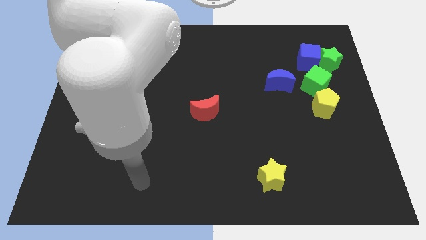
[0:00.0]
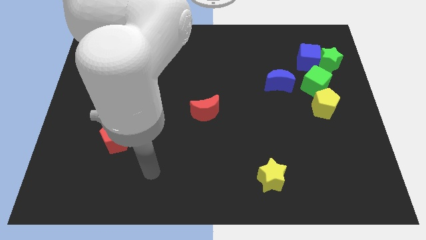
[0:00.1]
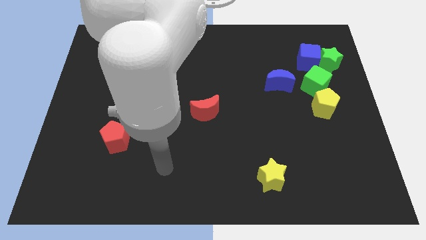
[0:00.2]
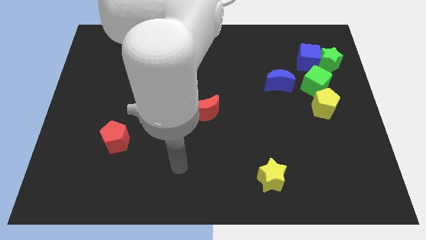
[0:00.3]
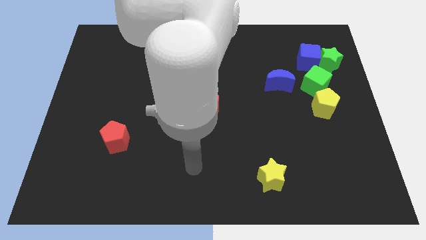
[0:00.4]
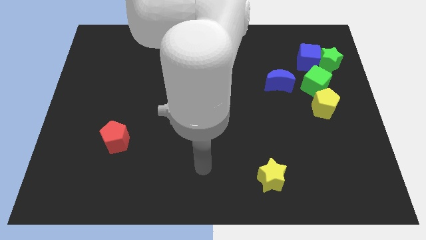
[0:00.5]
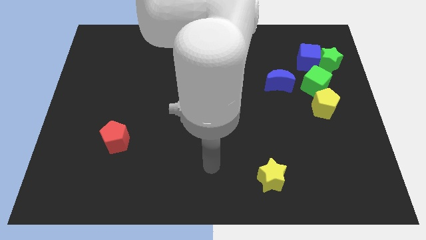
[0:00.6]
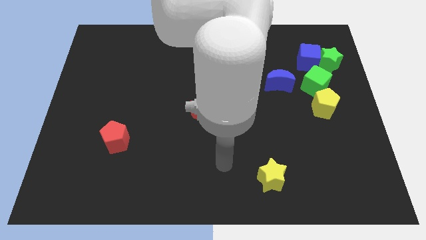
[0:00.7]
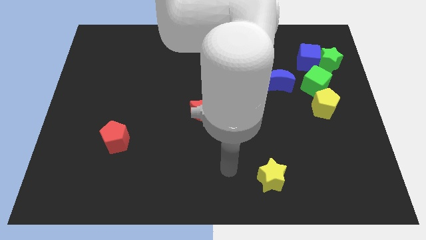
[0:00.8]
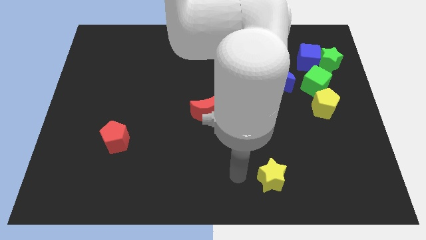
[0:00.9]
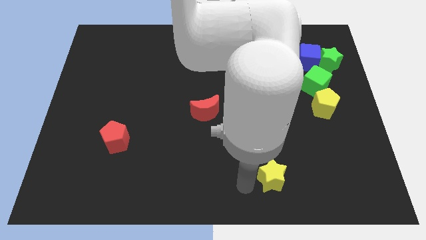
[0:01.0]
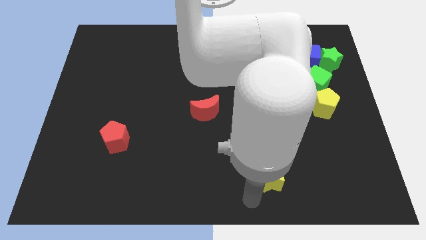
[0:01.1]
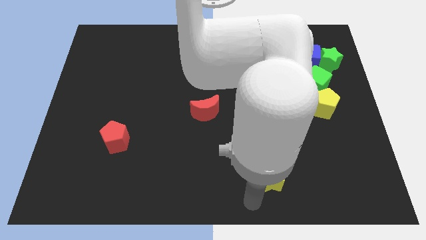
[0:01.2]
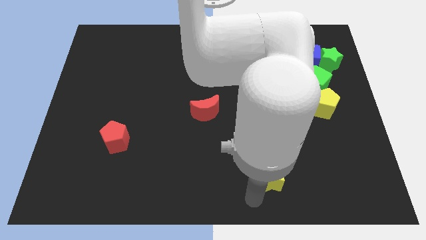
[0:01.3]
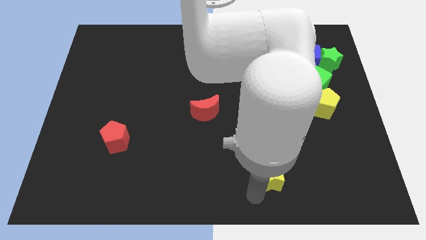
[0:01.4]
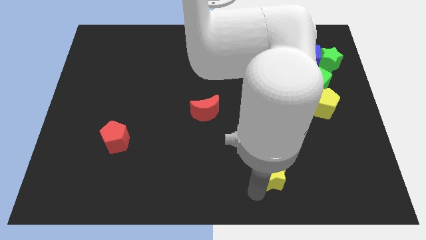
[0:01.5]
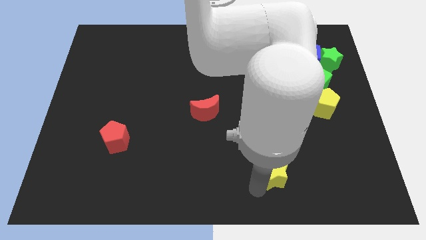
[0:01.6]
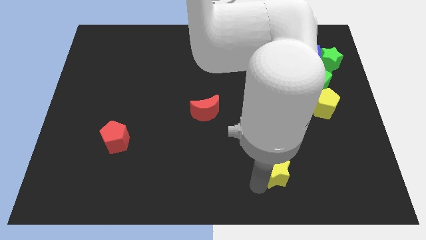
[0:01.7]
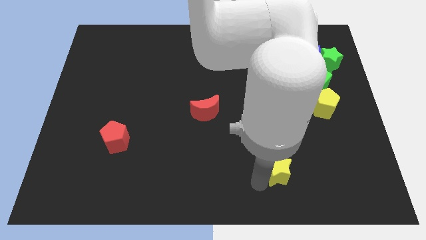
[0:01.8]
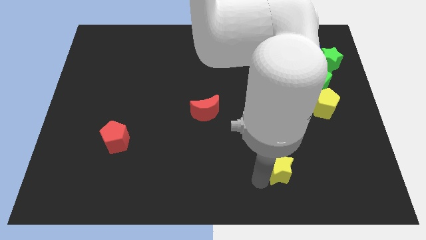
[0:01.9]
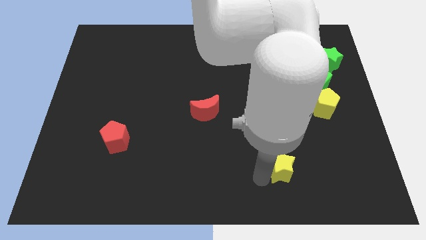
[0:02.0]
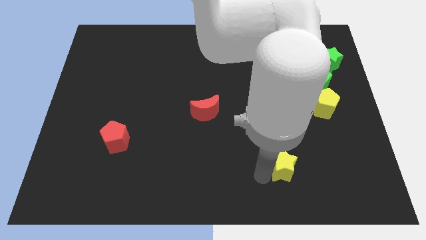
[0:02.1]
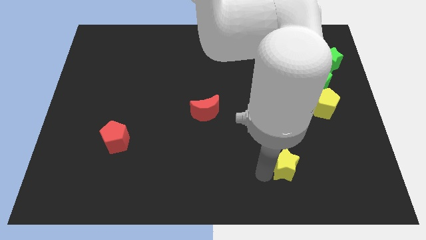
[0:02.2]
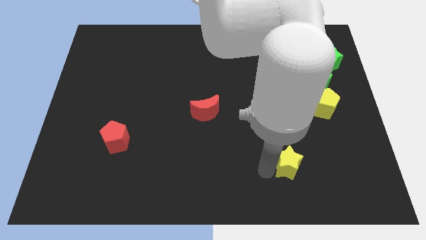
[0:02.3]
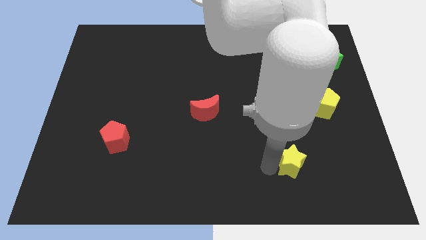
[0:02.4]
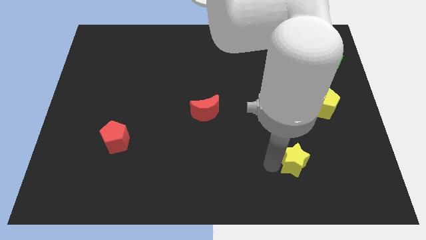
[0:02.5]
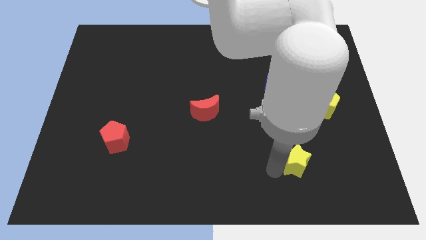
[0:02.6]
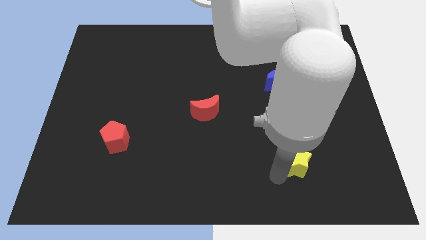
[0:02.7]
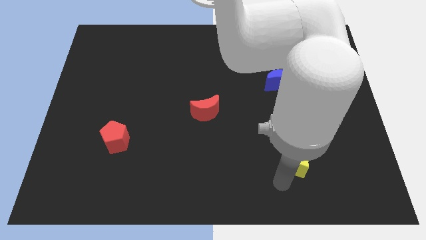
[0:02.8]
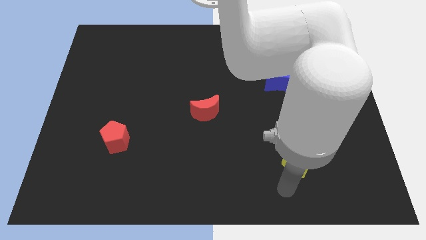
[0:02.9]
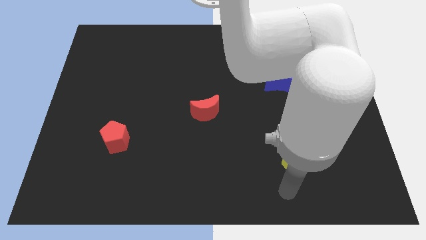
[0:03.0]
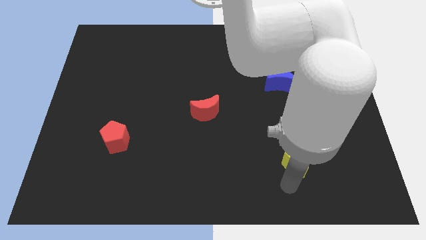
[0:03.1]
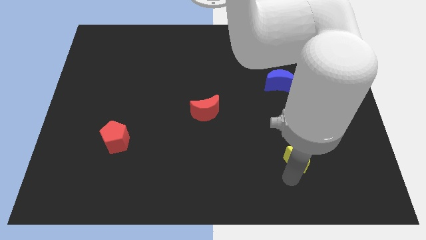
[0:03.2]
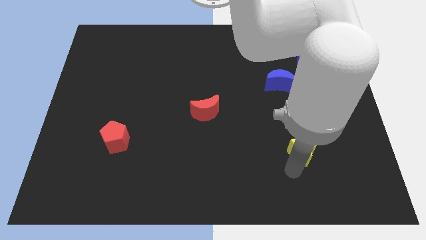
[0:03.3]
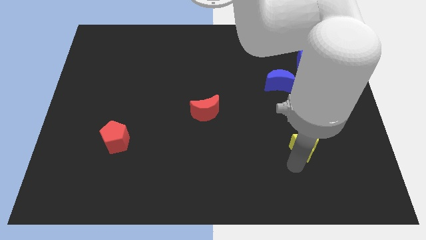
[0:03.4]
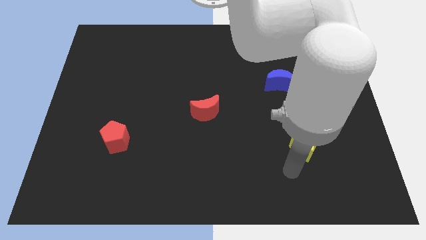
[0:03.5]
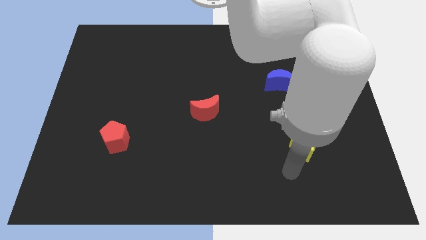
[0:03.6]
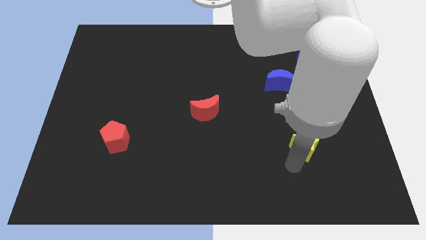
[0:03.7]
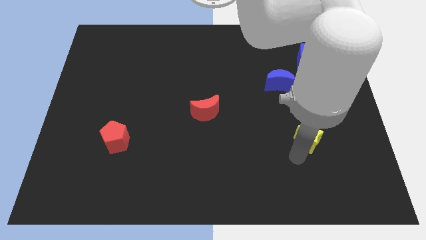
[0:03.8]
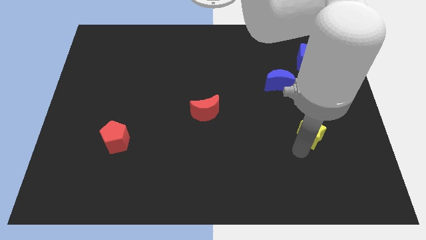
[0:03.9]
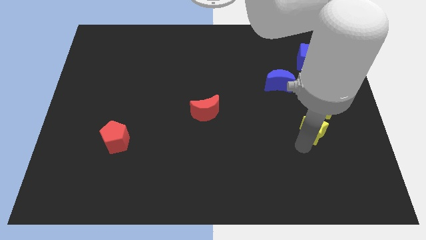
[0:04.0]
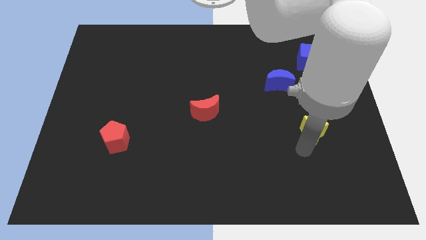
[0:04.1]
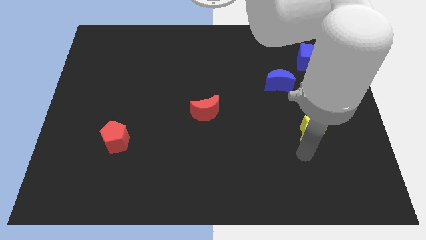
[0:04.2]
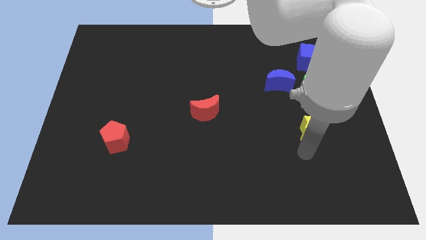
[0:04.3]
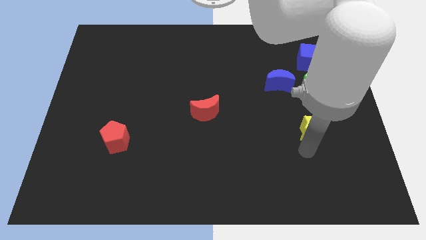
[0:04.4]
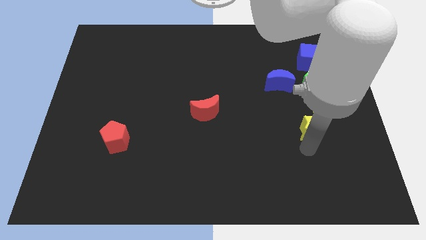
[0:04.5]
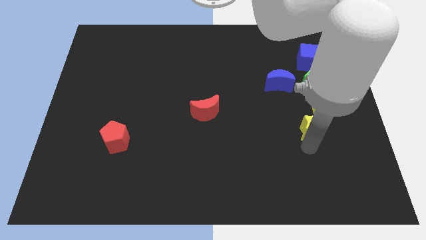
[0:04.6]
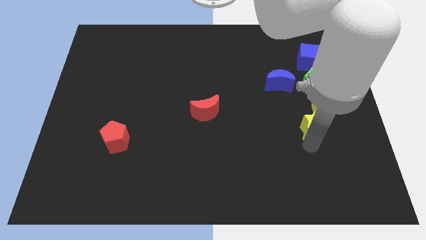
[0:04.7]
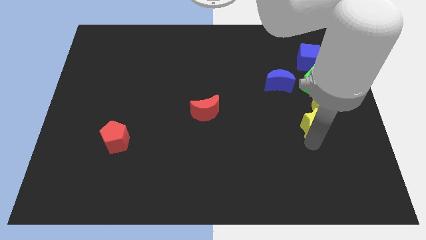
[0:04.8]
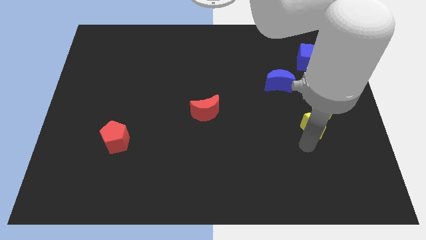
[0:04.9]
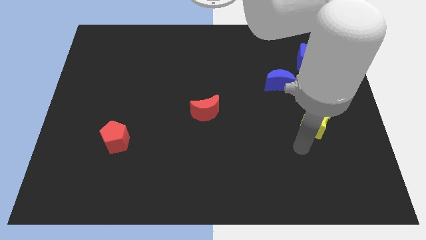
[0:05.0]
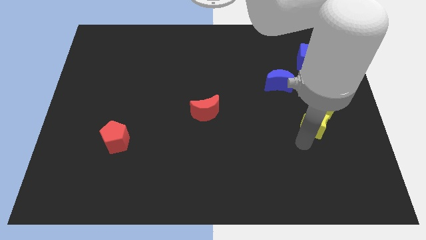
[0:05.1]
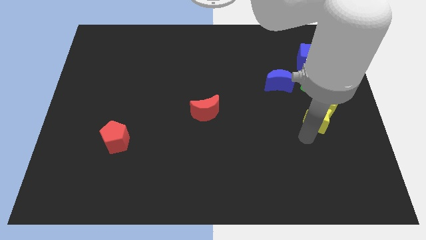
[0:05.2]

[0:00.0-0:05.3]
put the yellow star next to the yellow pentagon

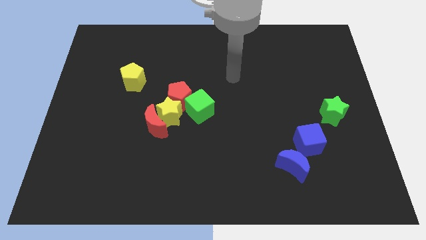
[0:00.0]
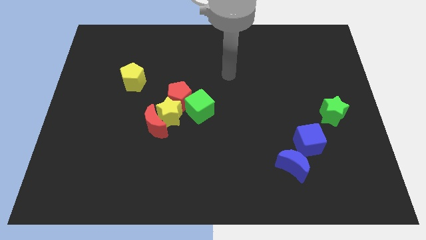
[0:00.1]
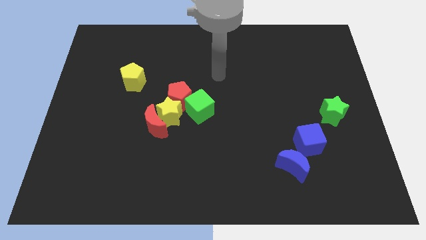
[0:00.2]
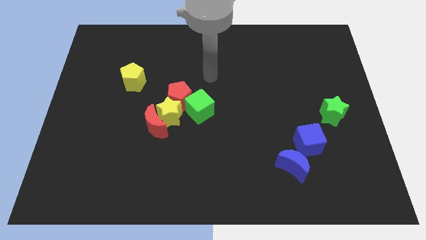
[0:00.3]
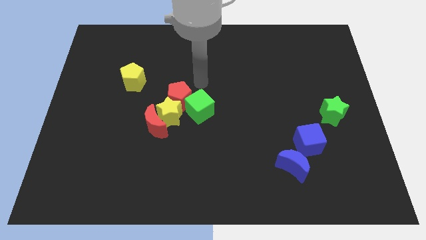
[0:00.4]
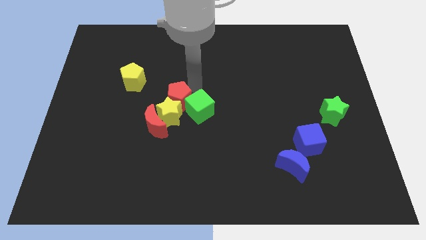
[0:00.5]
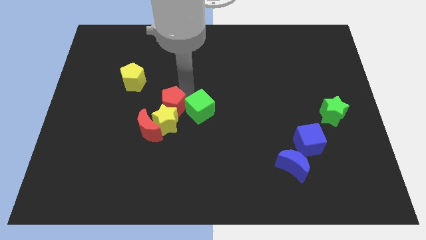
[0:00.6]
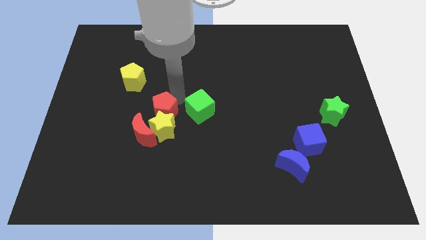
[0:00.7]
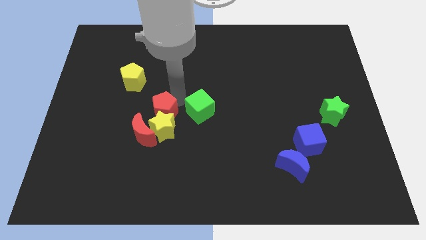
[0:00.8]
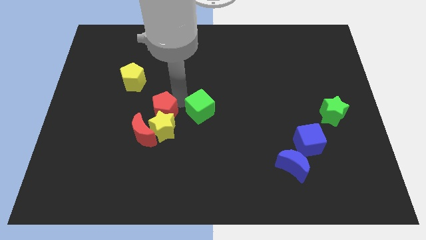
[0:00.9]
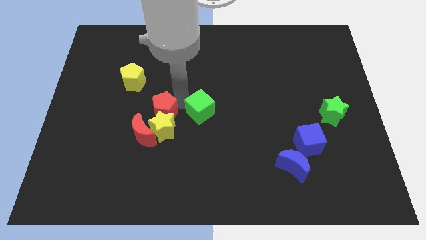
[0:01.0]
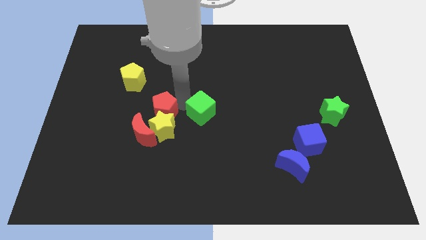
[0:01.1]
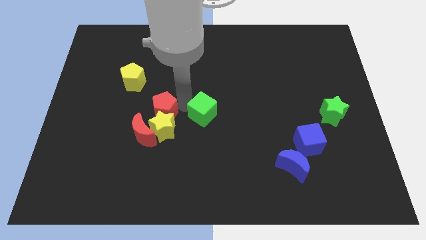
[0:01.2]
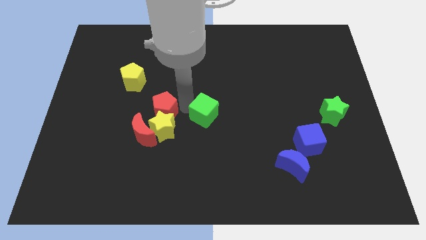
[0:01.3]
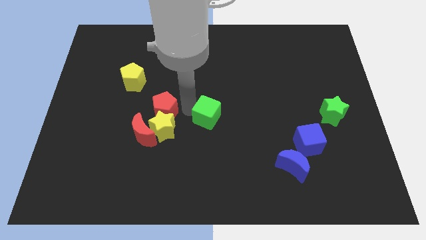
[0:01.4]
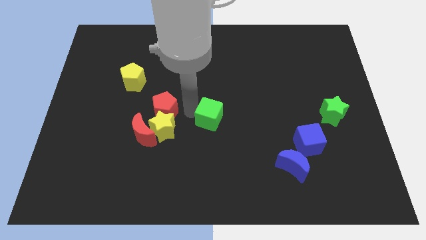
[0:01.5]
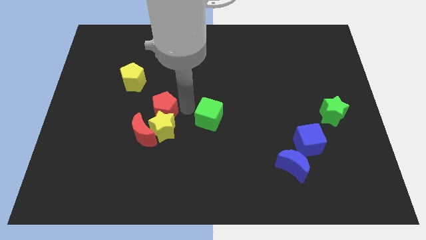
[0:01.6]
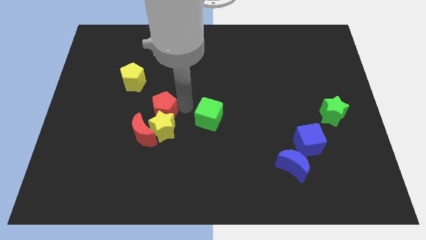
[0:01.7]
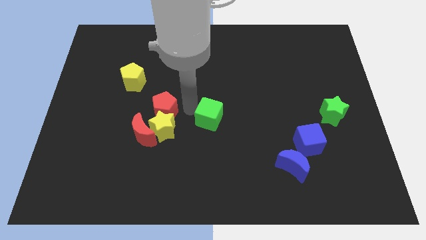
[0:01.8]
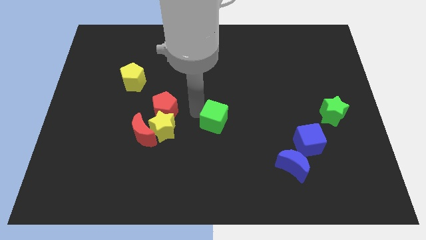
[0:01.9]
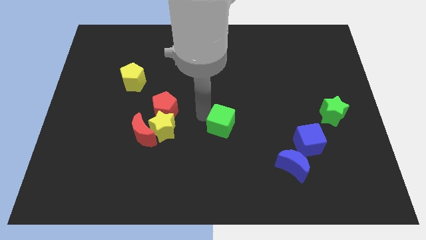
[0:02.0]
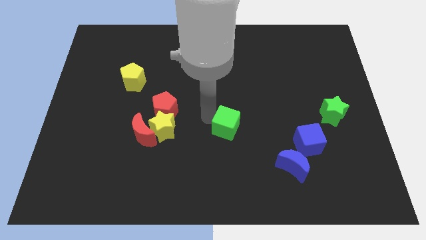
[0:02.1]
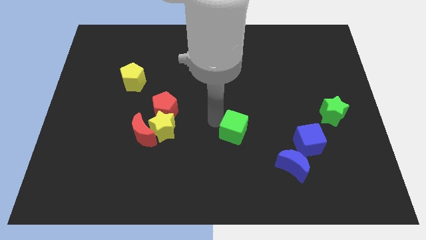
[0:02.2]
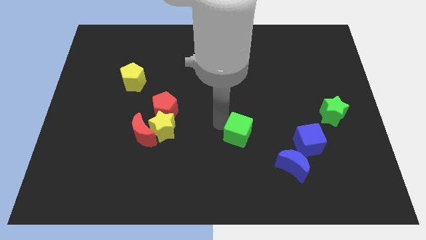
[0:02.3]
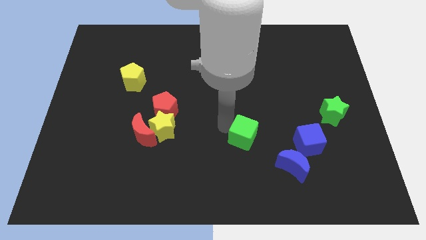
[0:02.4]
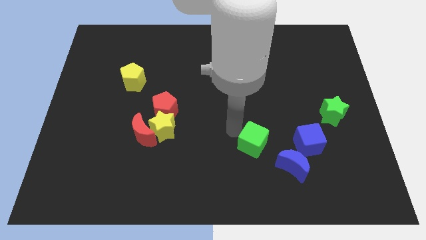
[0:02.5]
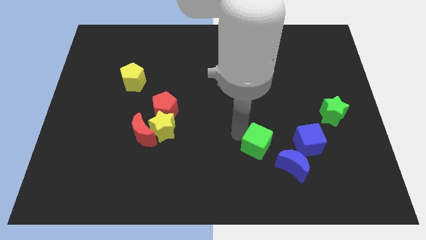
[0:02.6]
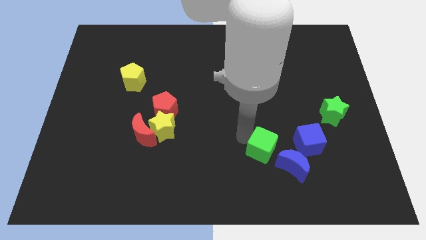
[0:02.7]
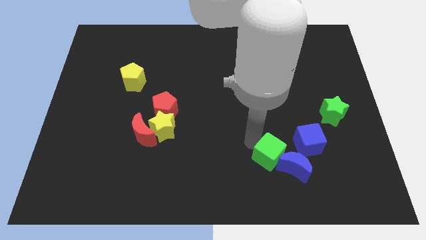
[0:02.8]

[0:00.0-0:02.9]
put the green cube towards the blue moon

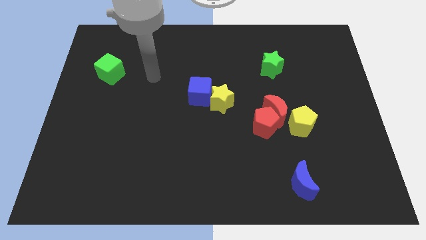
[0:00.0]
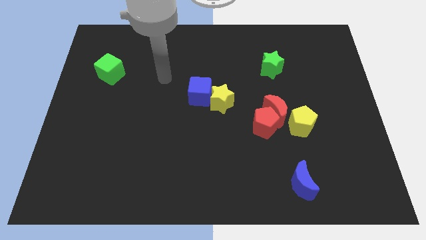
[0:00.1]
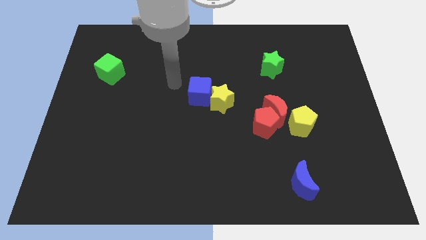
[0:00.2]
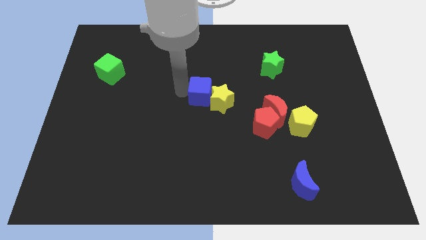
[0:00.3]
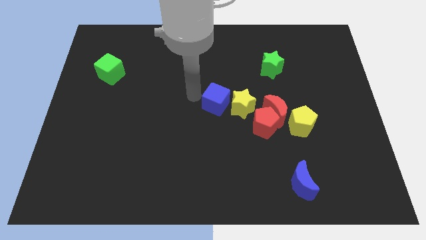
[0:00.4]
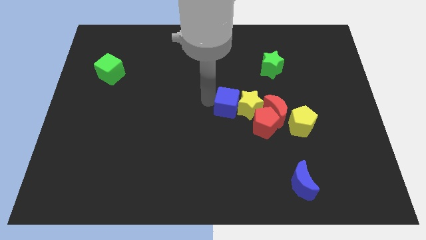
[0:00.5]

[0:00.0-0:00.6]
slide the yellow star next to the red moon
